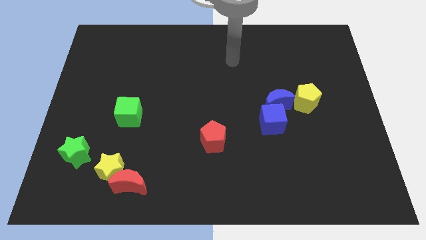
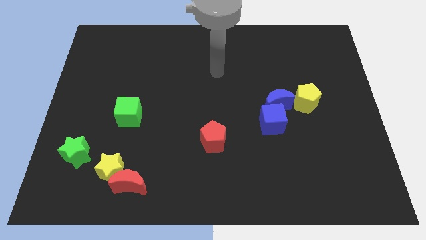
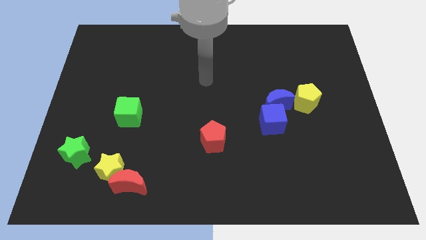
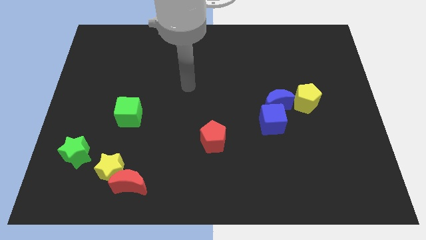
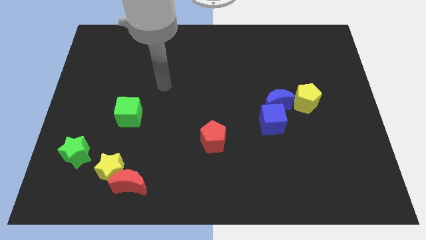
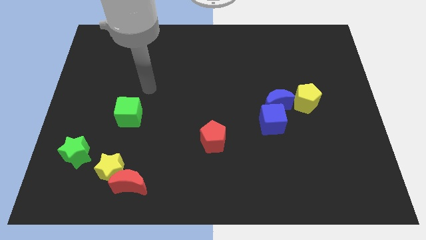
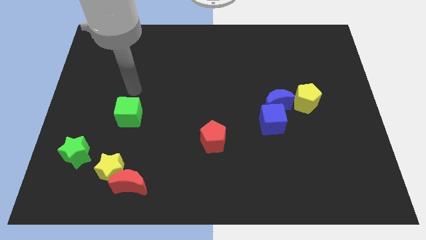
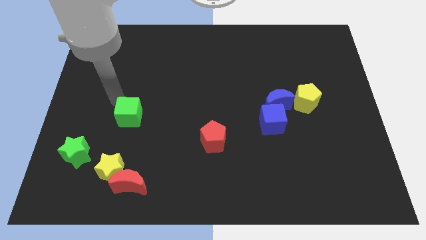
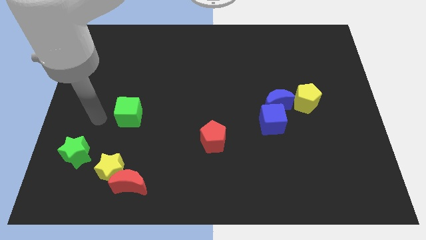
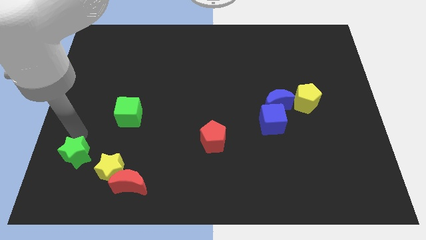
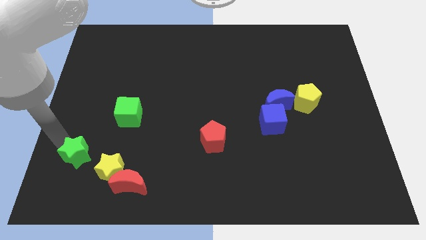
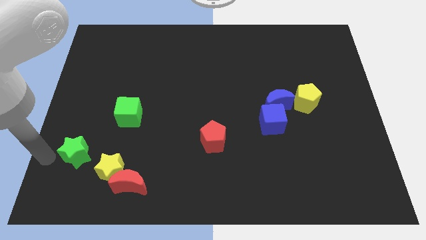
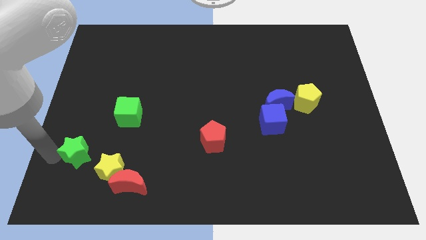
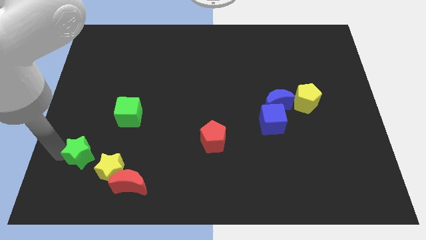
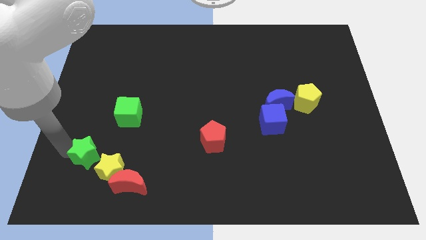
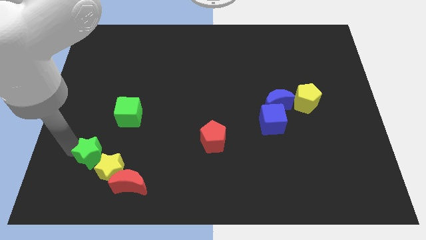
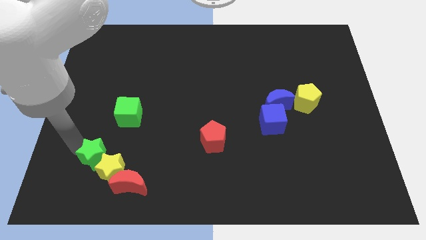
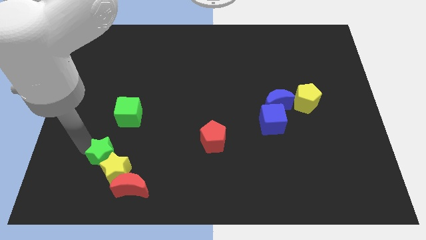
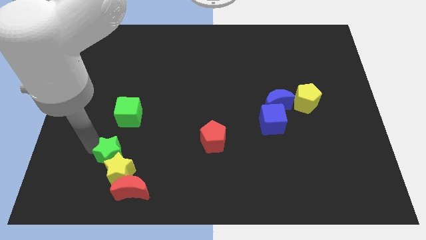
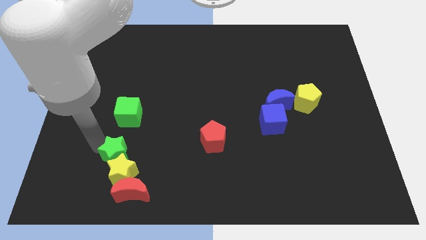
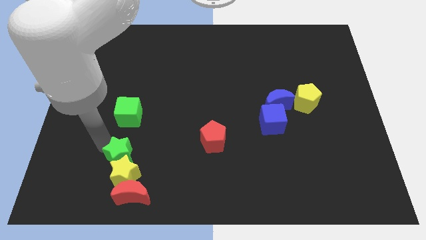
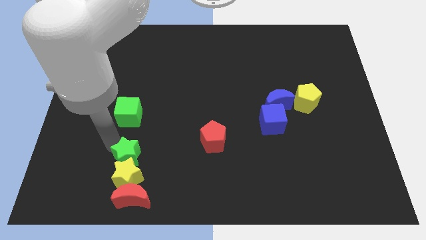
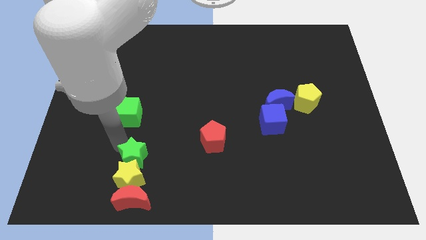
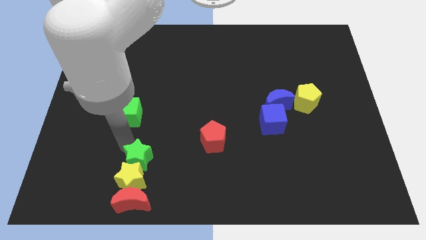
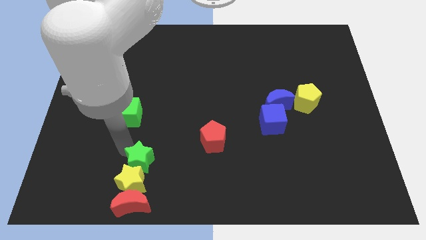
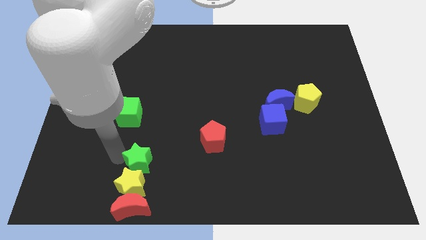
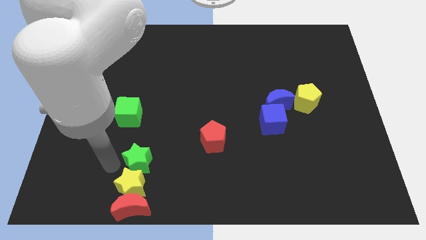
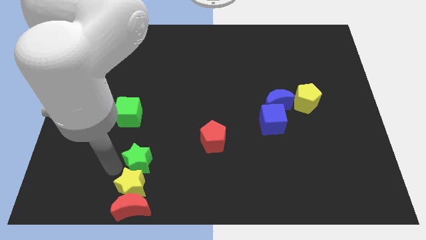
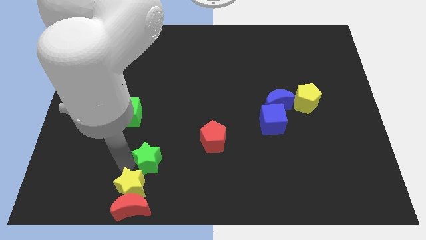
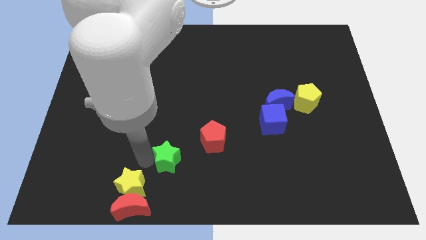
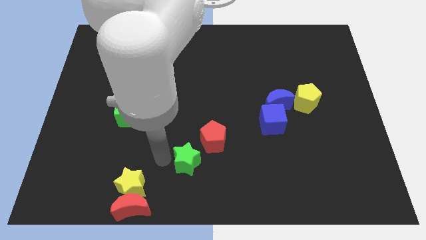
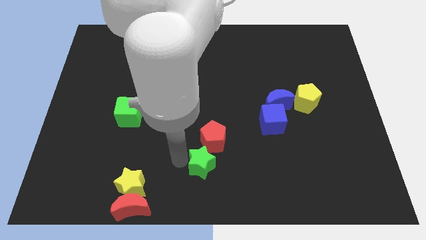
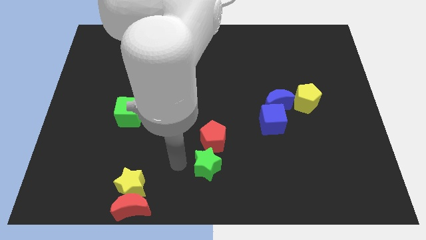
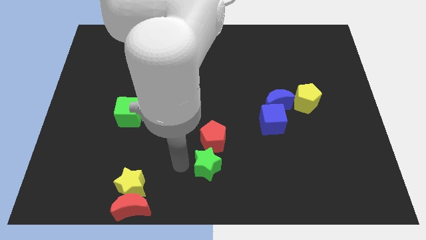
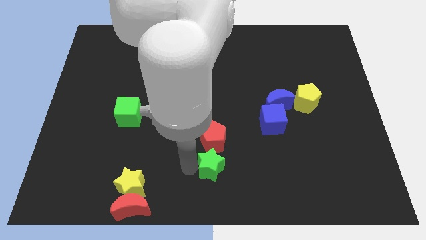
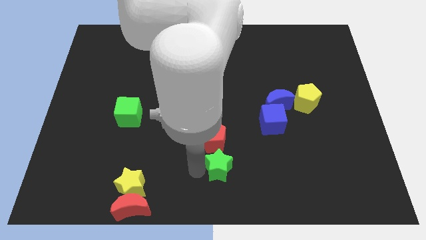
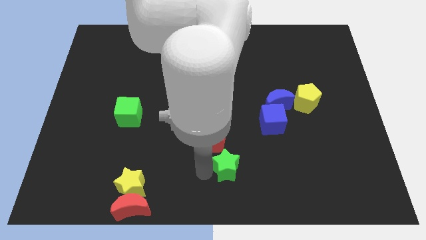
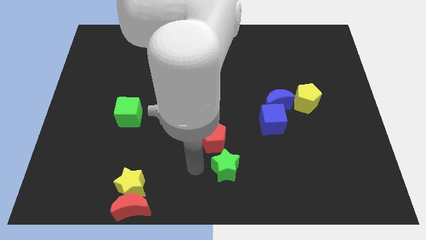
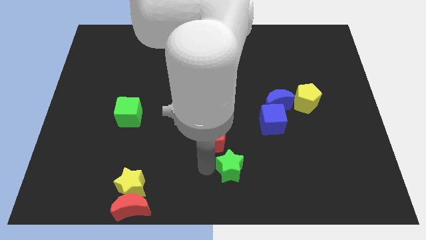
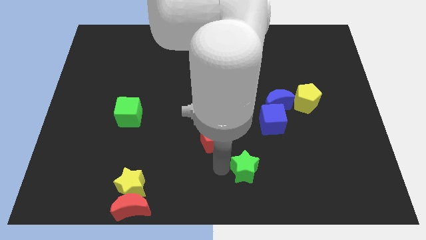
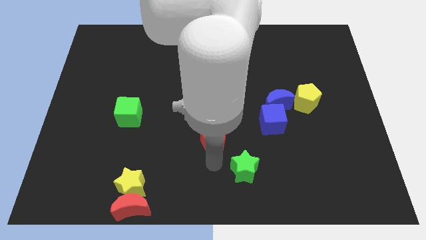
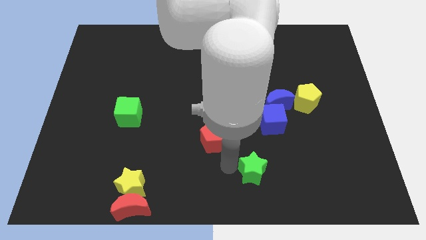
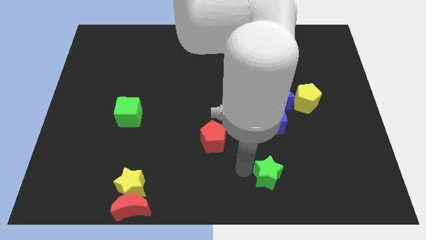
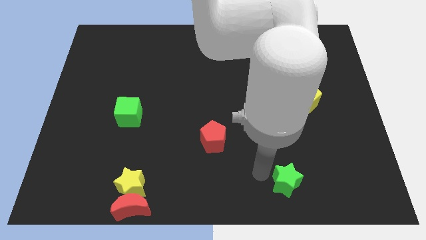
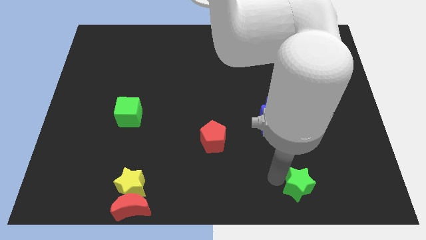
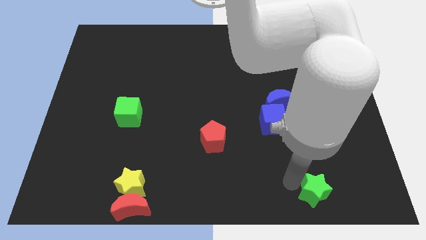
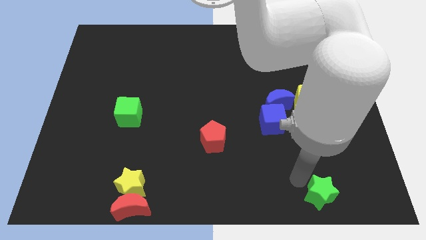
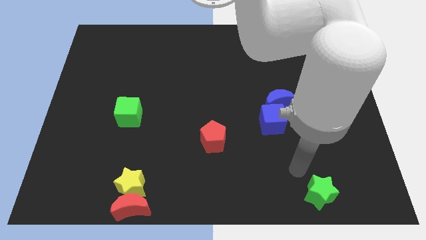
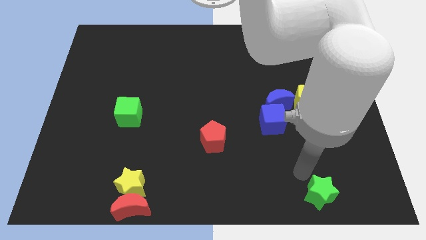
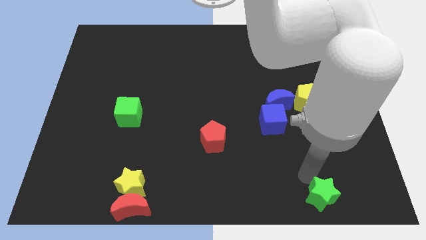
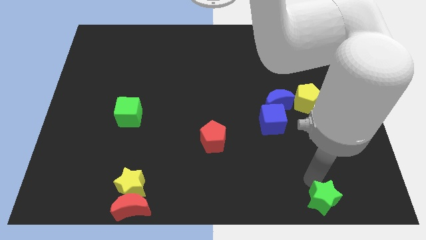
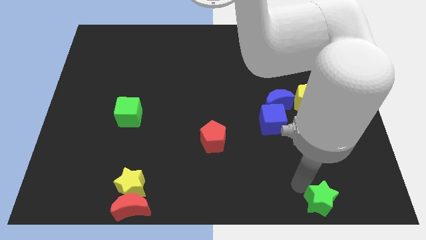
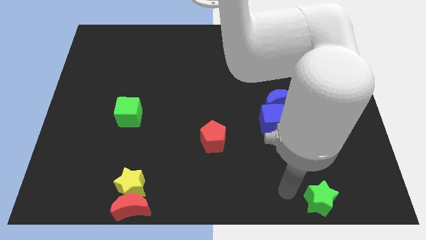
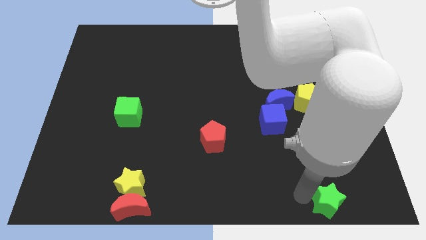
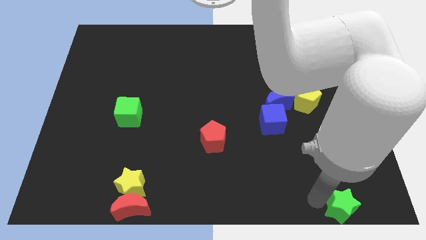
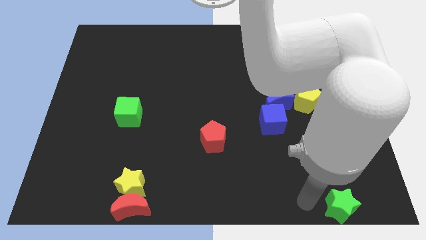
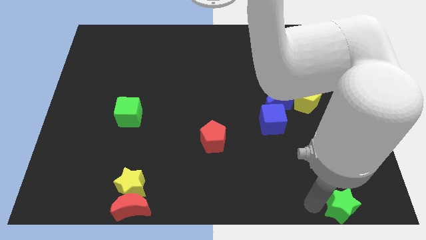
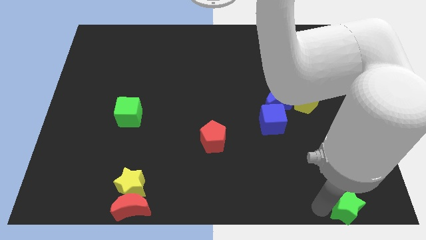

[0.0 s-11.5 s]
put the green star to the lower right corner

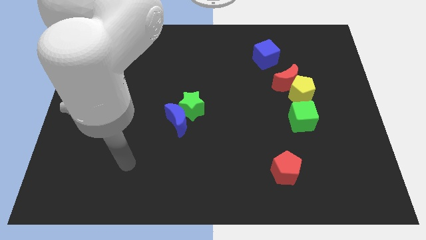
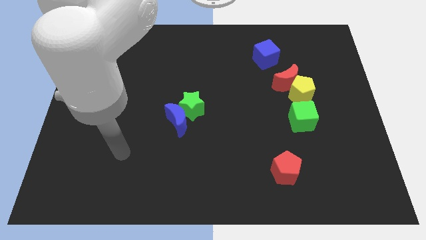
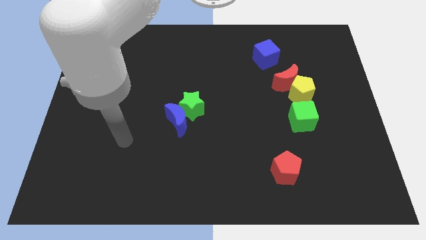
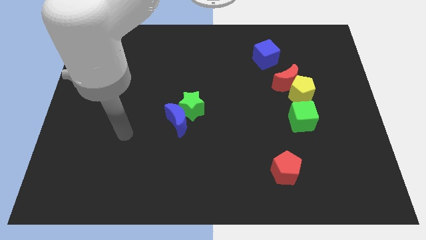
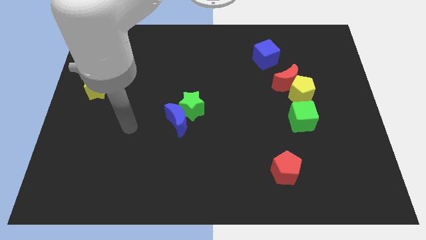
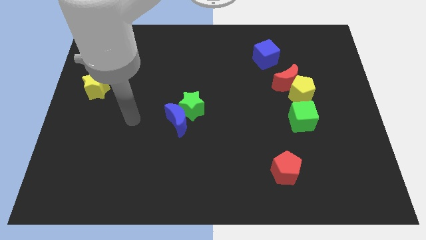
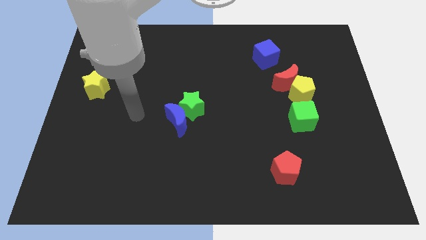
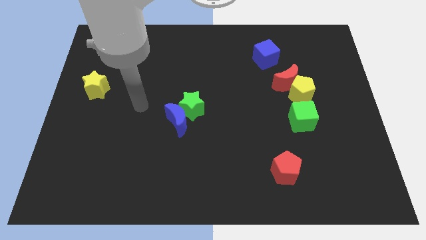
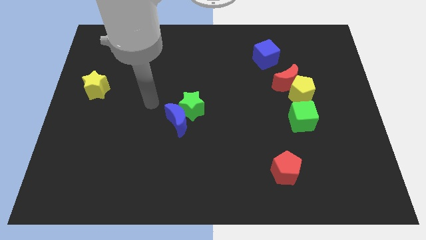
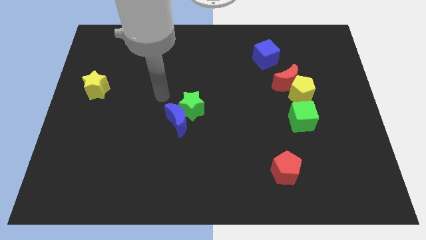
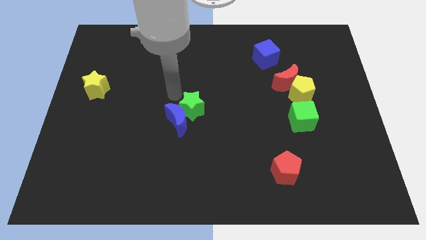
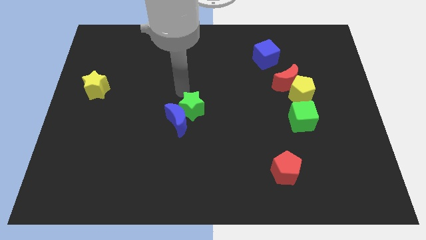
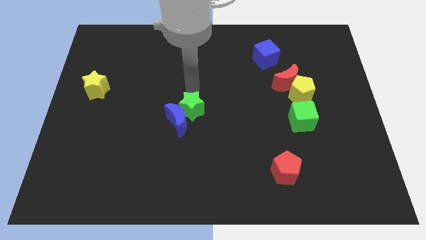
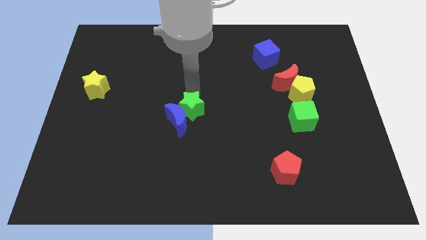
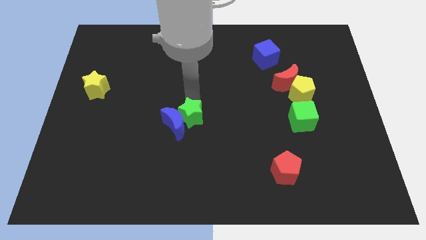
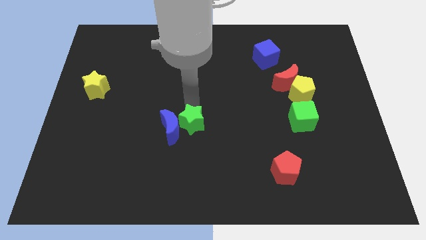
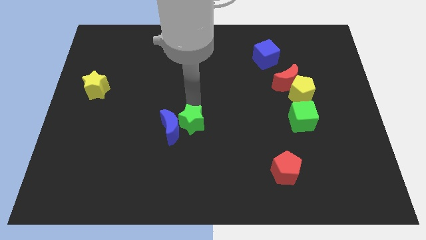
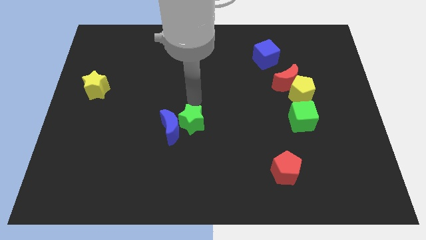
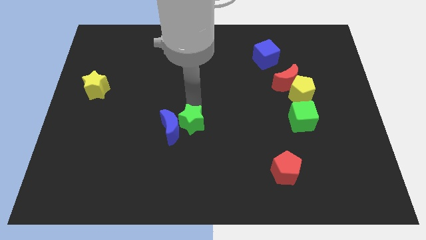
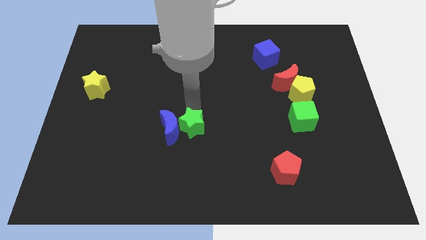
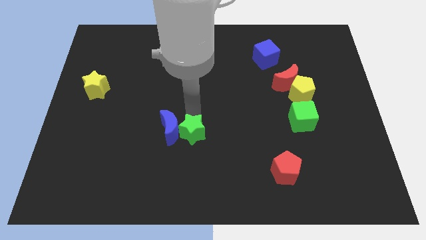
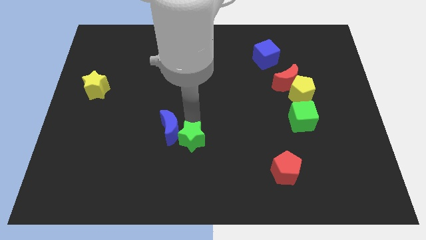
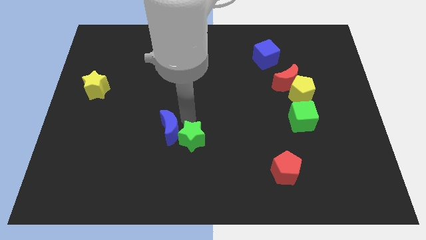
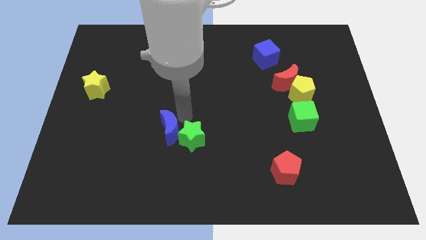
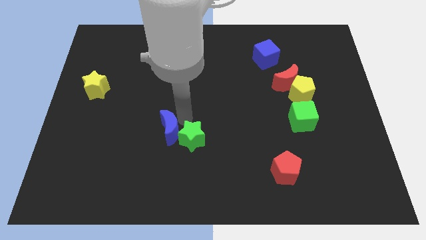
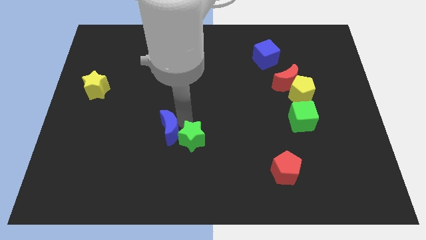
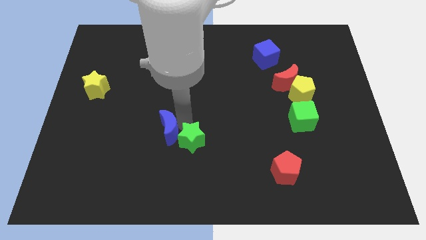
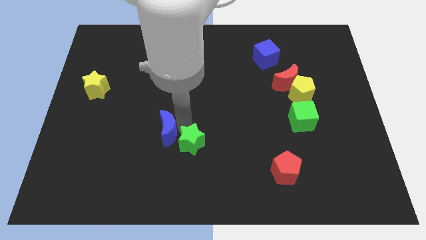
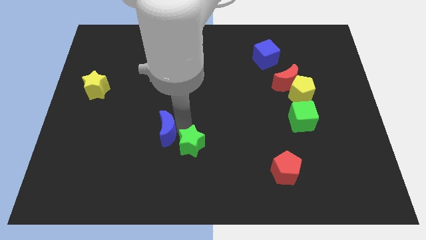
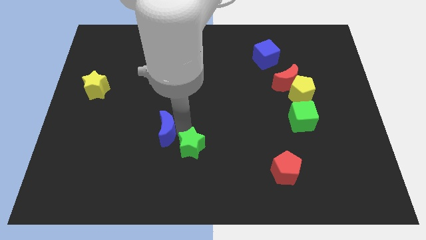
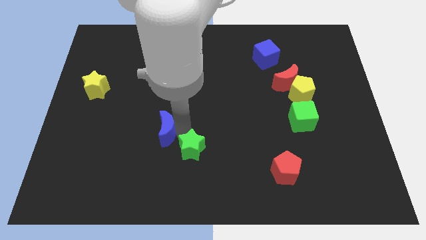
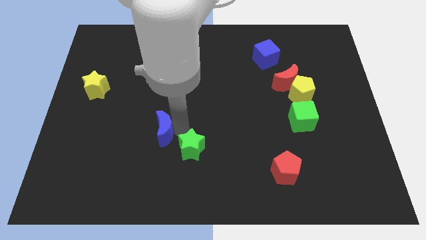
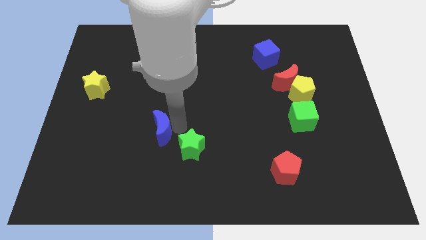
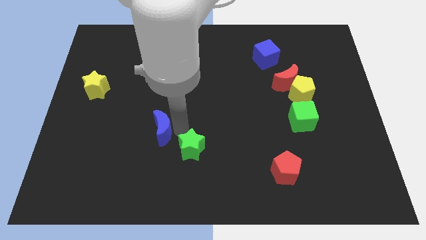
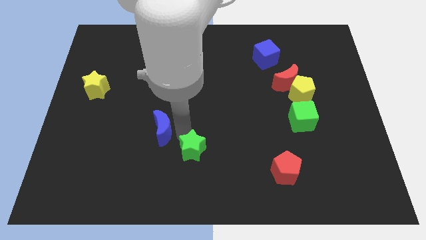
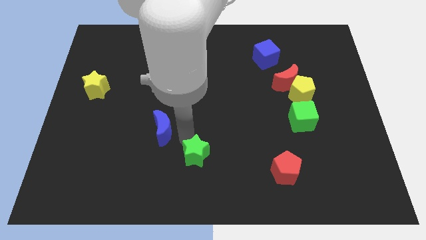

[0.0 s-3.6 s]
move the green star to the bottom
